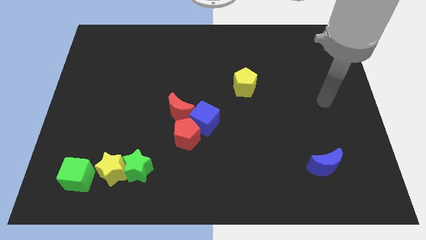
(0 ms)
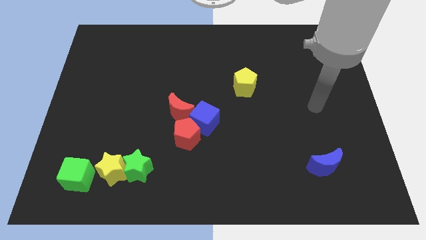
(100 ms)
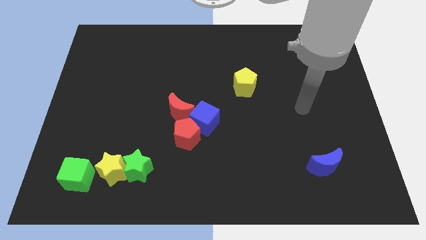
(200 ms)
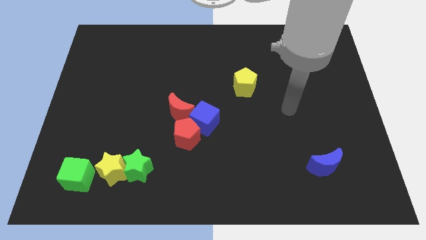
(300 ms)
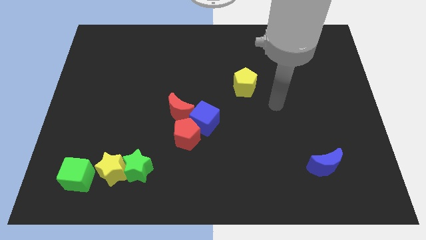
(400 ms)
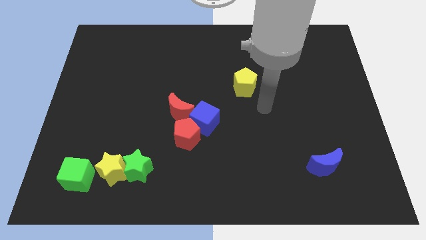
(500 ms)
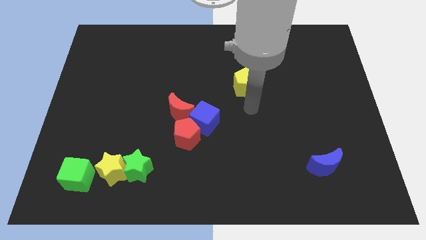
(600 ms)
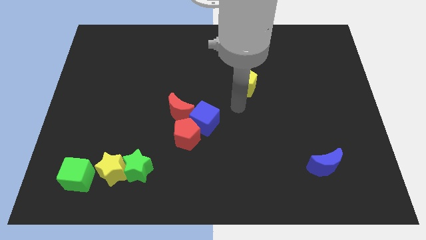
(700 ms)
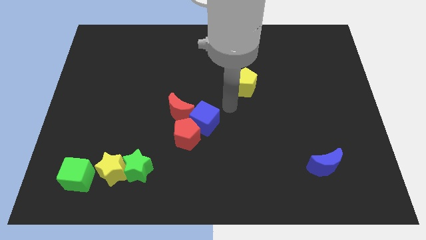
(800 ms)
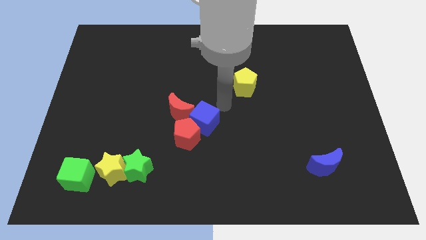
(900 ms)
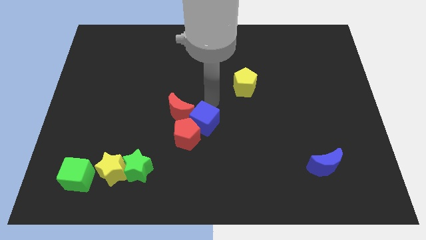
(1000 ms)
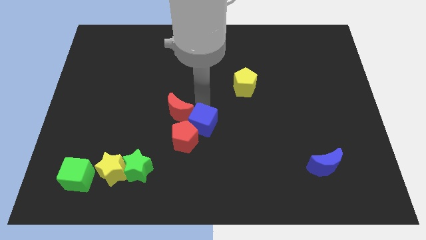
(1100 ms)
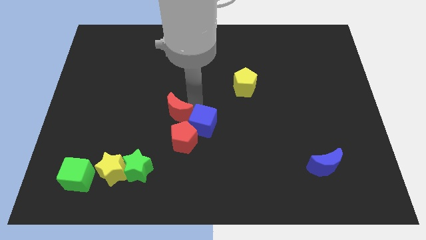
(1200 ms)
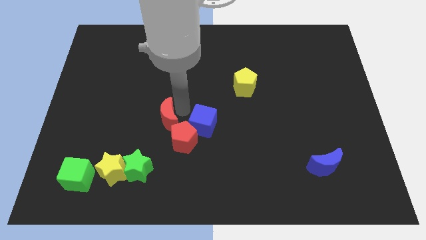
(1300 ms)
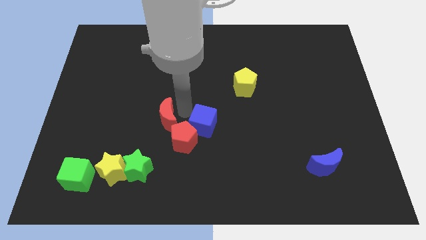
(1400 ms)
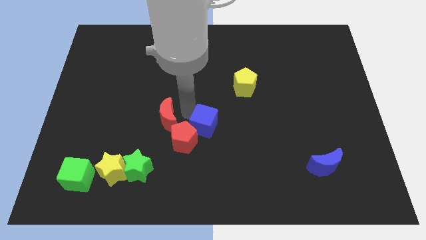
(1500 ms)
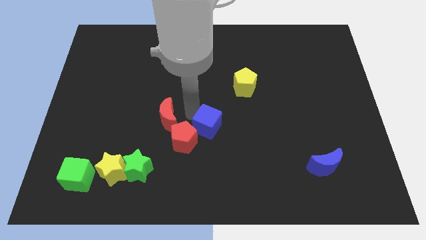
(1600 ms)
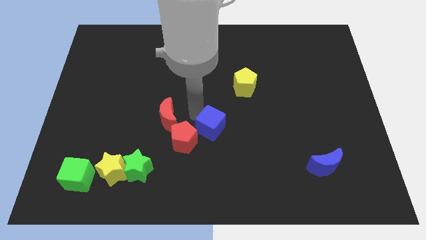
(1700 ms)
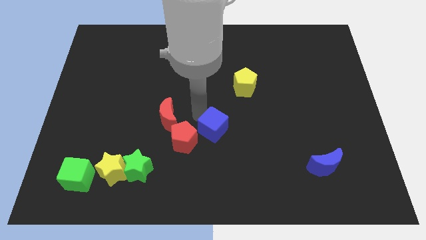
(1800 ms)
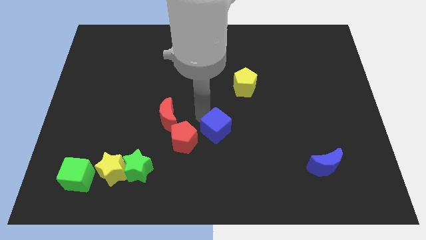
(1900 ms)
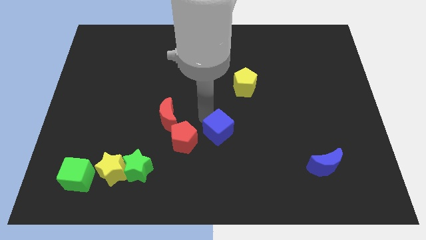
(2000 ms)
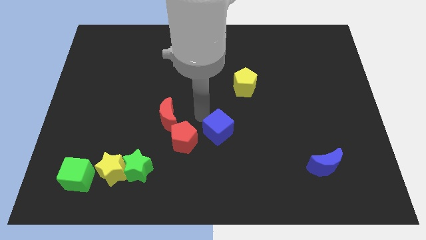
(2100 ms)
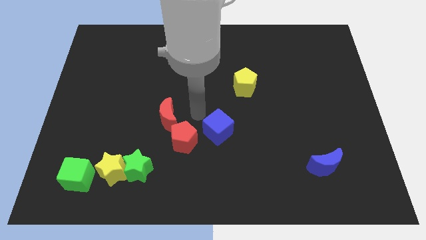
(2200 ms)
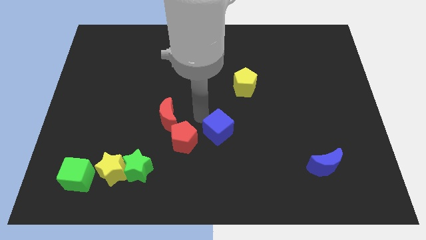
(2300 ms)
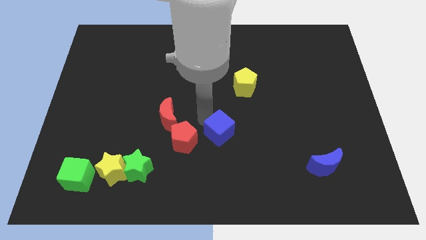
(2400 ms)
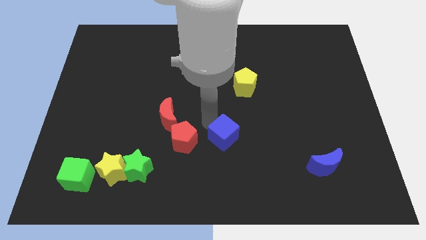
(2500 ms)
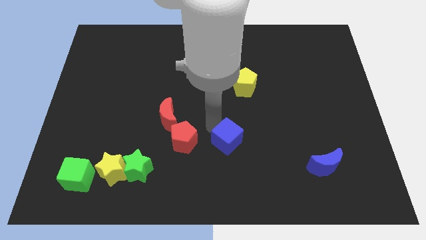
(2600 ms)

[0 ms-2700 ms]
slightly slide the blue cube diagonally down and right

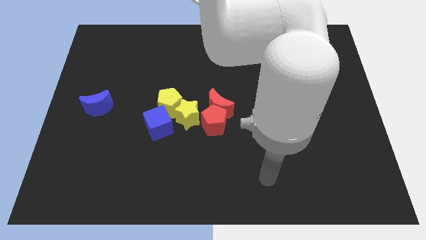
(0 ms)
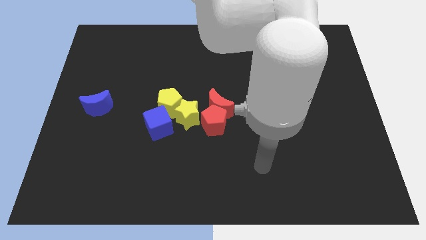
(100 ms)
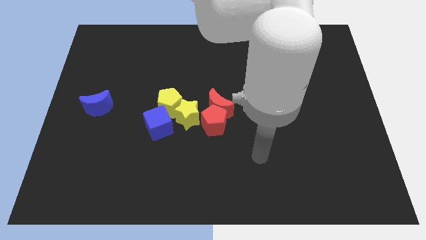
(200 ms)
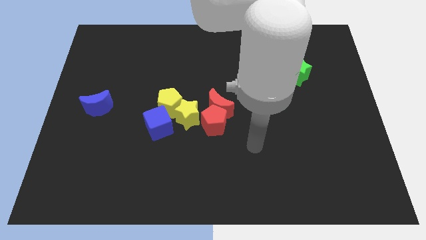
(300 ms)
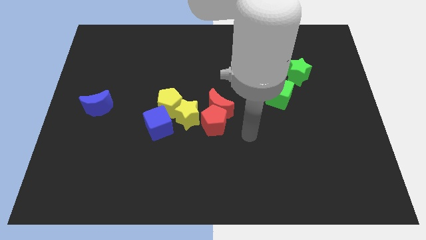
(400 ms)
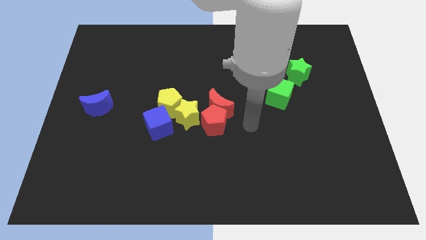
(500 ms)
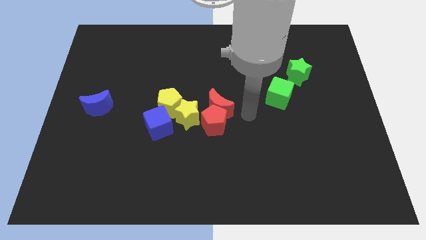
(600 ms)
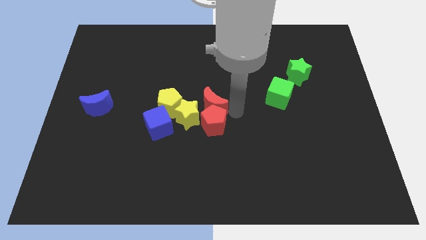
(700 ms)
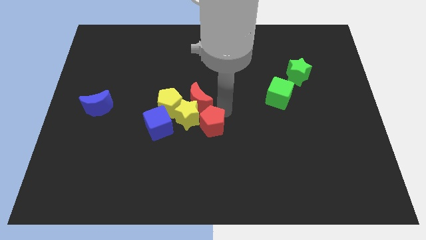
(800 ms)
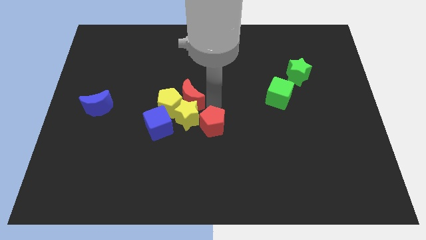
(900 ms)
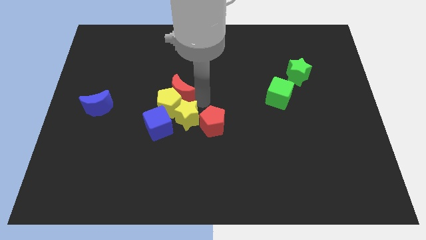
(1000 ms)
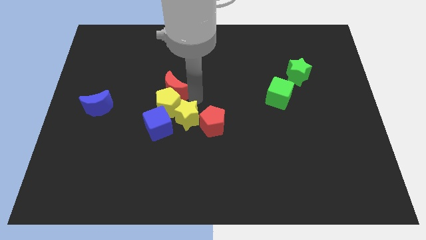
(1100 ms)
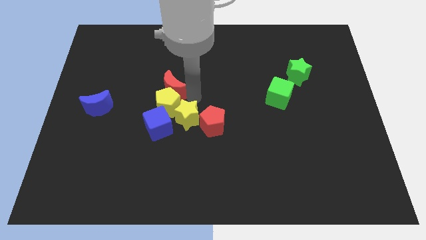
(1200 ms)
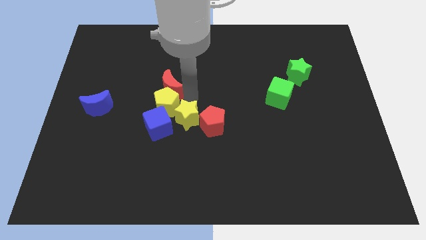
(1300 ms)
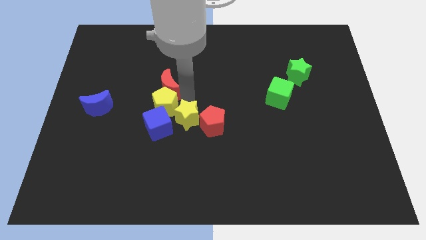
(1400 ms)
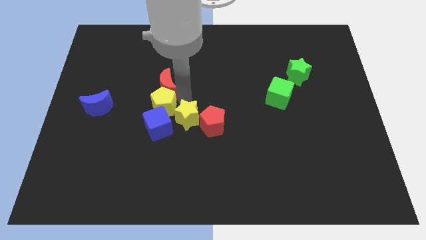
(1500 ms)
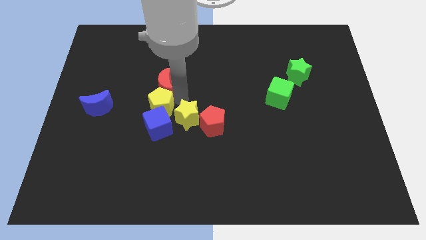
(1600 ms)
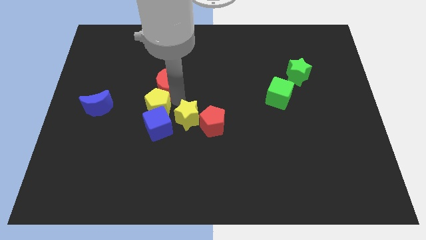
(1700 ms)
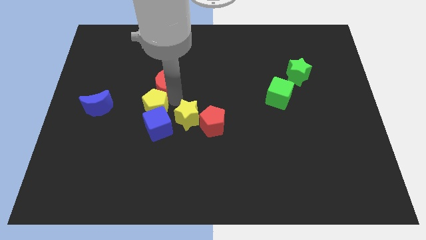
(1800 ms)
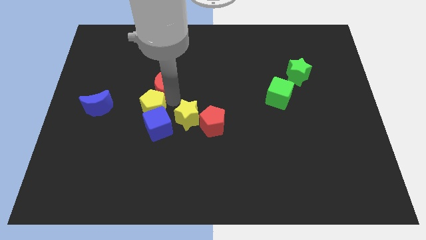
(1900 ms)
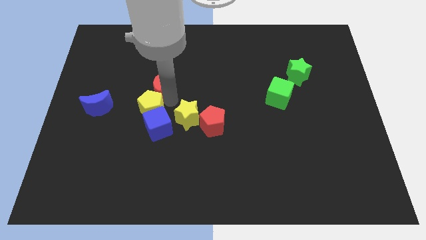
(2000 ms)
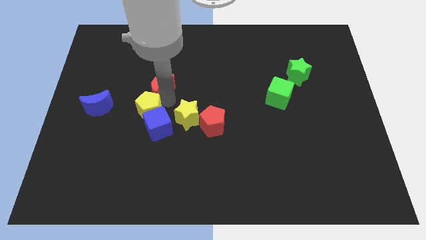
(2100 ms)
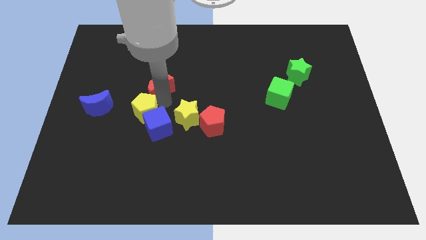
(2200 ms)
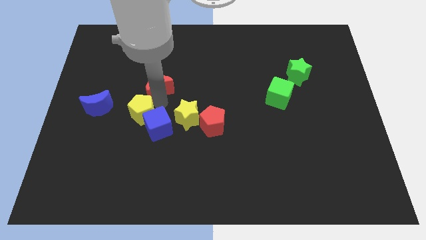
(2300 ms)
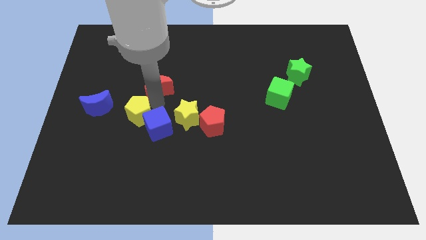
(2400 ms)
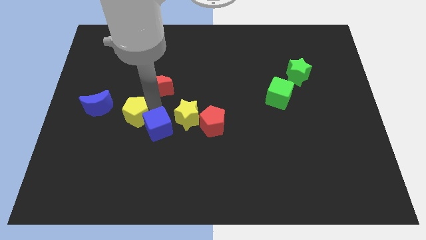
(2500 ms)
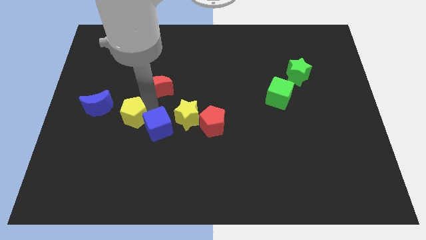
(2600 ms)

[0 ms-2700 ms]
slightly slide the yellow pentagon down and then to the left

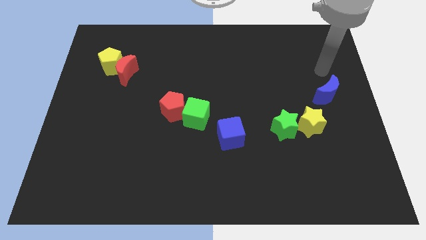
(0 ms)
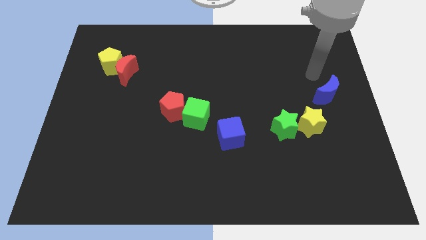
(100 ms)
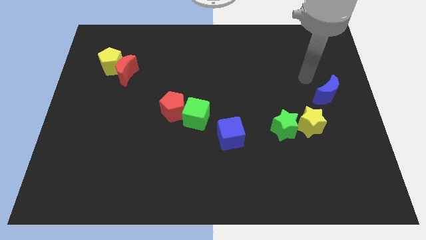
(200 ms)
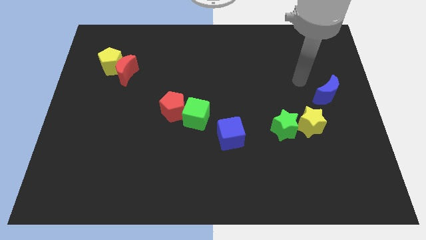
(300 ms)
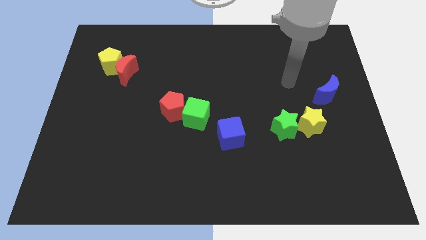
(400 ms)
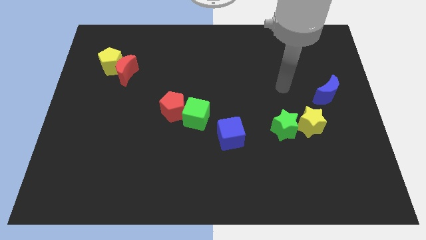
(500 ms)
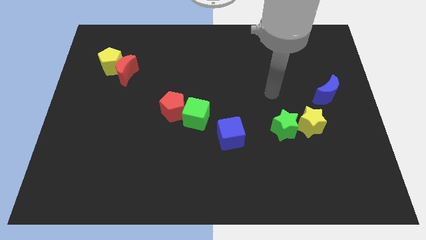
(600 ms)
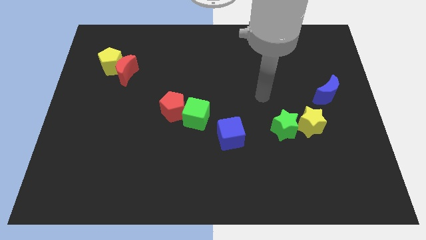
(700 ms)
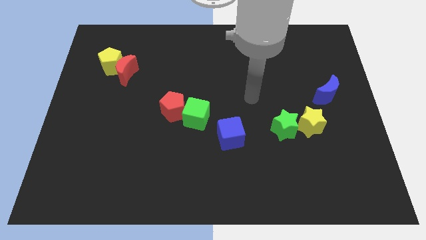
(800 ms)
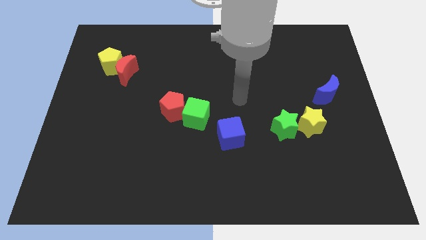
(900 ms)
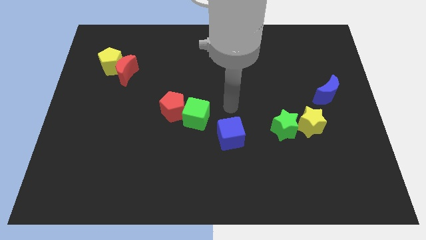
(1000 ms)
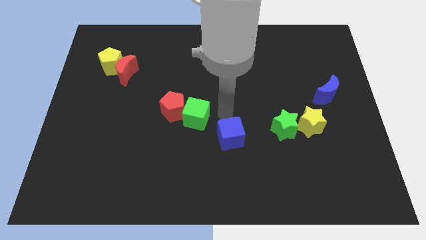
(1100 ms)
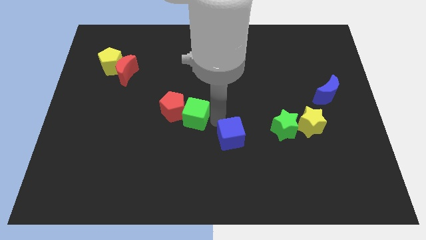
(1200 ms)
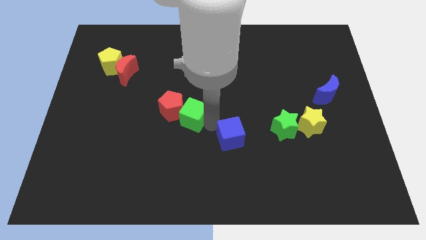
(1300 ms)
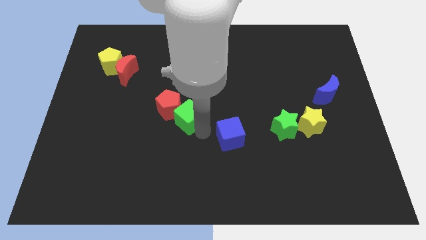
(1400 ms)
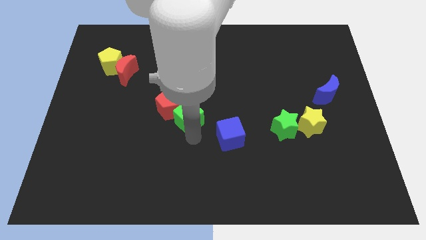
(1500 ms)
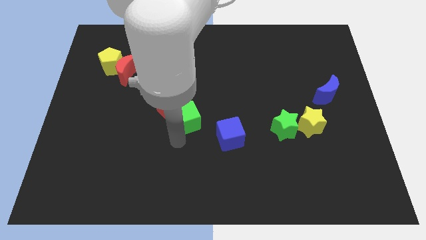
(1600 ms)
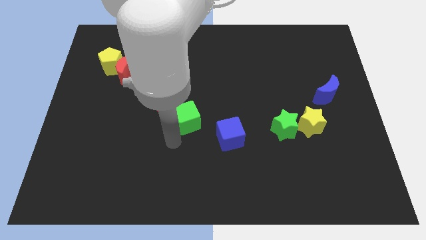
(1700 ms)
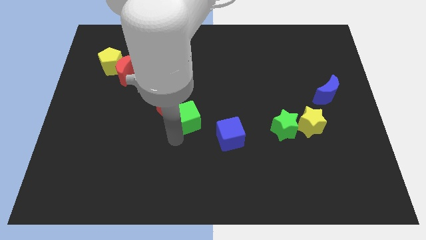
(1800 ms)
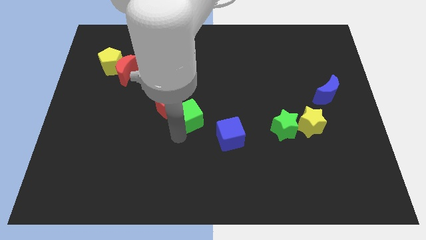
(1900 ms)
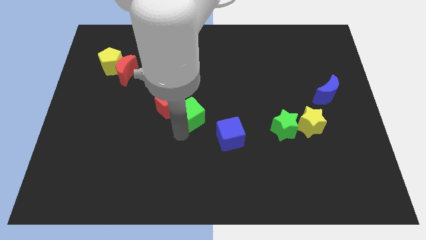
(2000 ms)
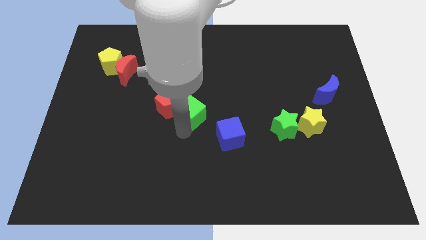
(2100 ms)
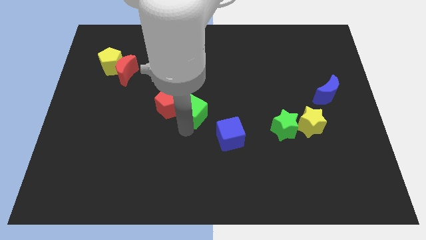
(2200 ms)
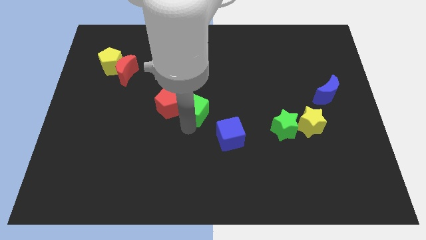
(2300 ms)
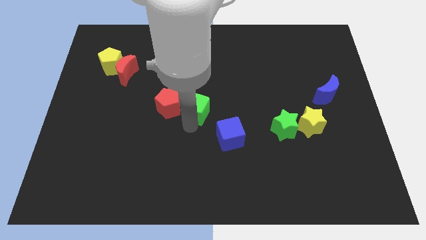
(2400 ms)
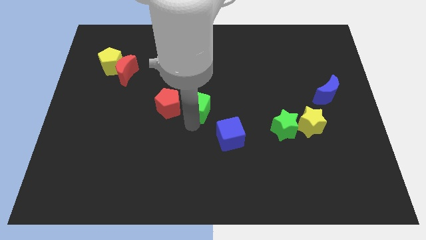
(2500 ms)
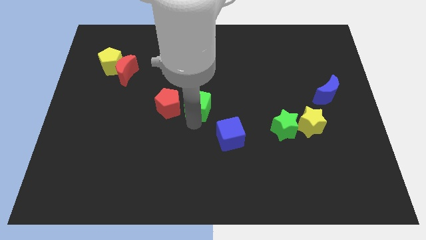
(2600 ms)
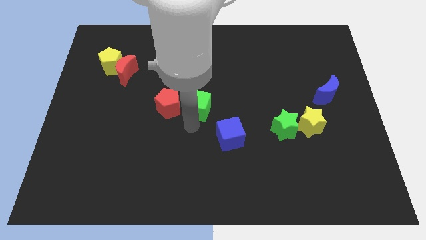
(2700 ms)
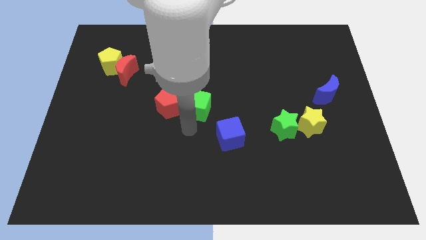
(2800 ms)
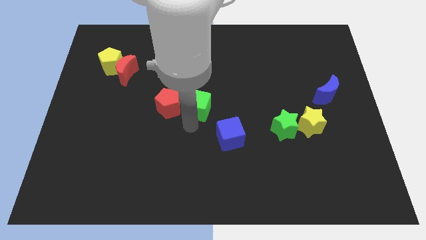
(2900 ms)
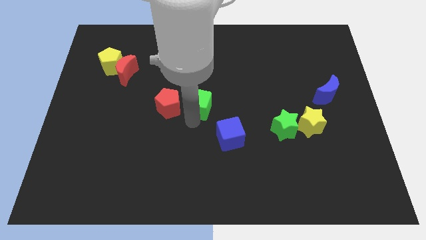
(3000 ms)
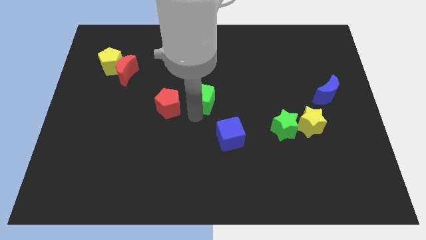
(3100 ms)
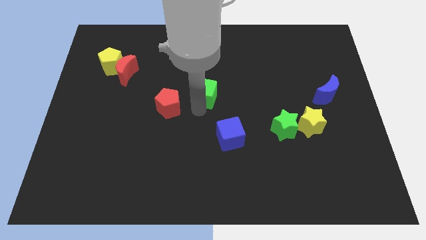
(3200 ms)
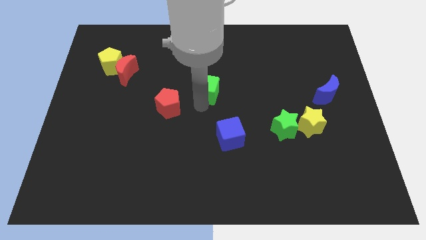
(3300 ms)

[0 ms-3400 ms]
push the green cube upwards a bit
